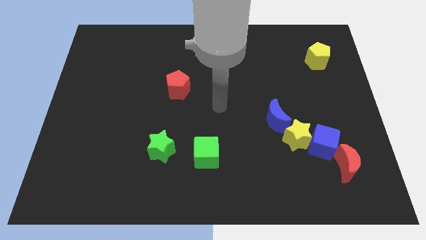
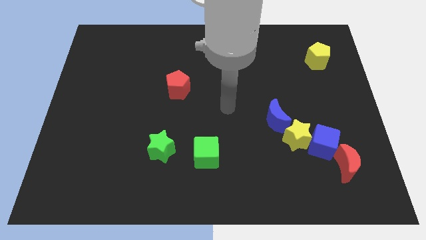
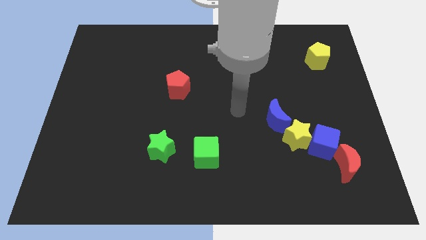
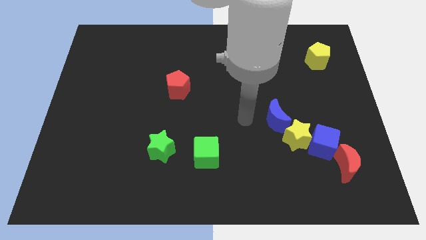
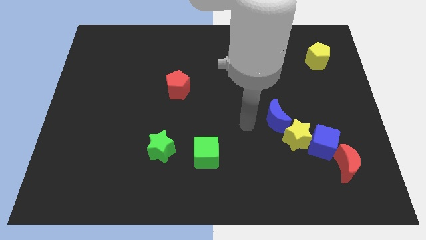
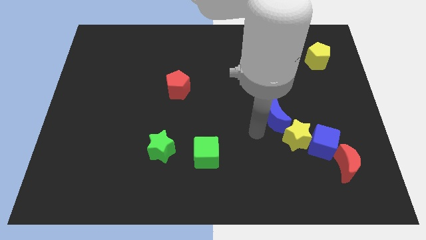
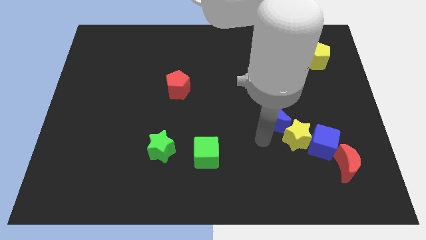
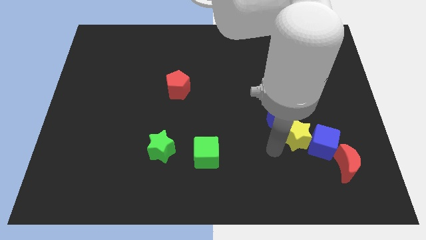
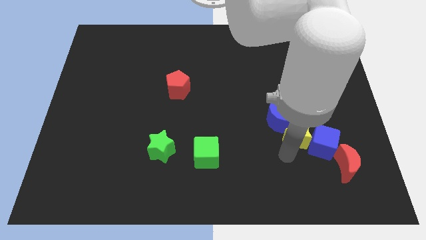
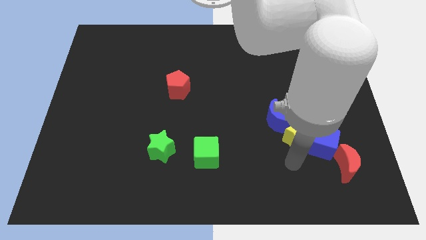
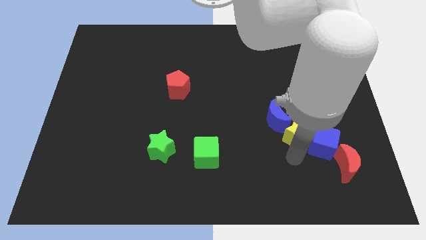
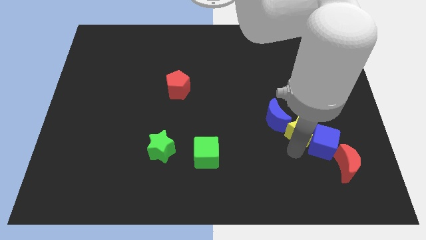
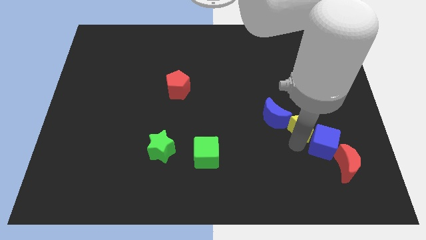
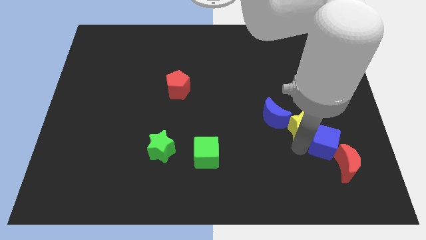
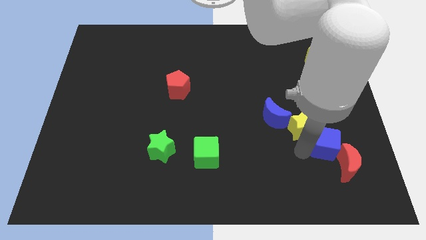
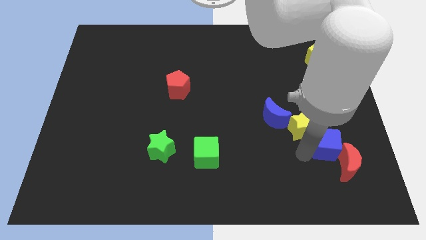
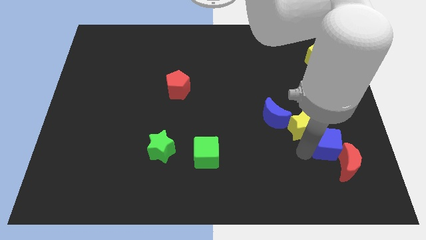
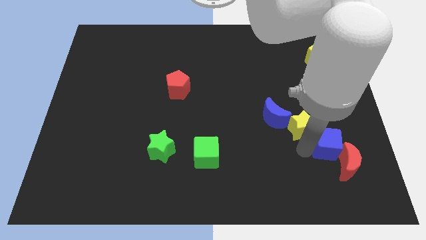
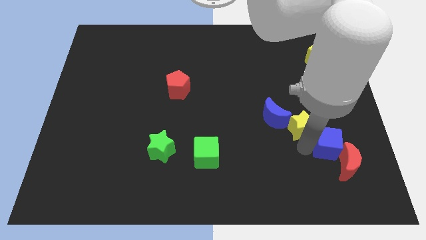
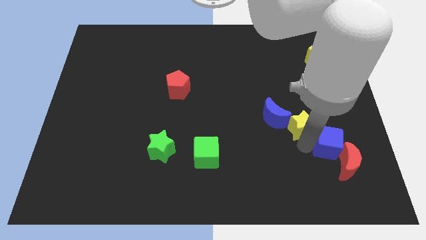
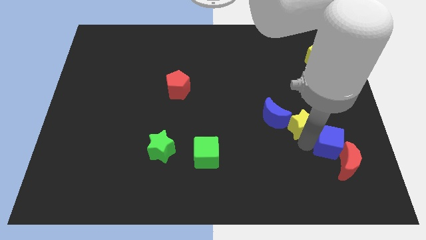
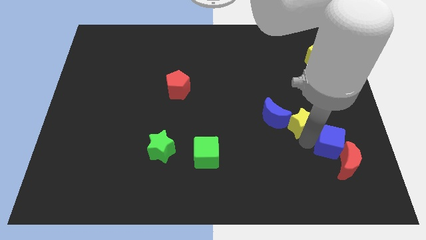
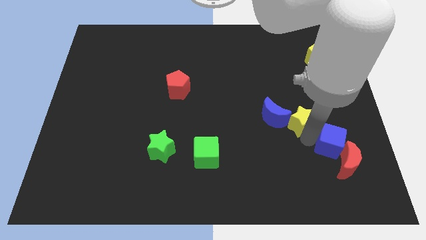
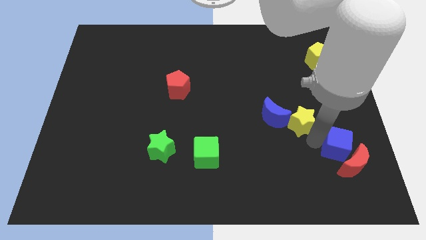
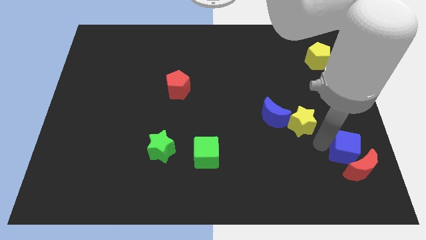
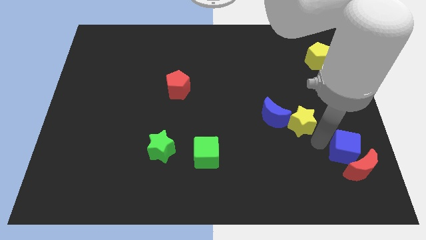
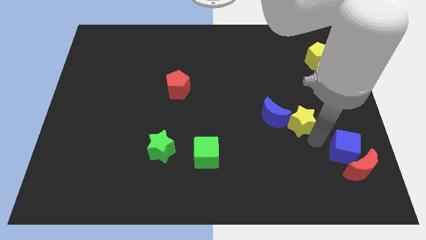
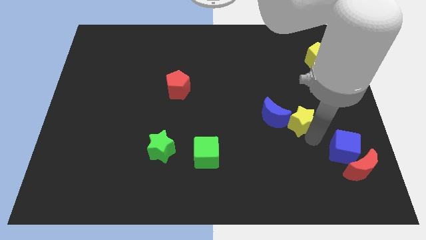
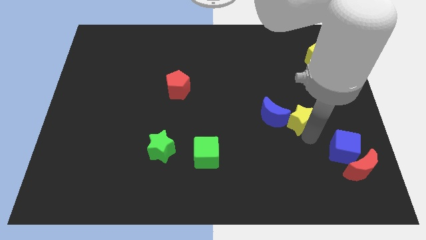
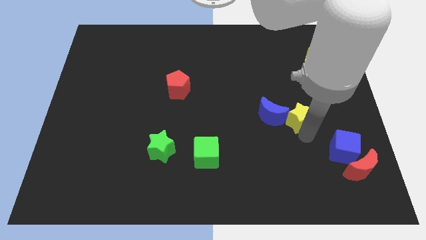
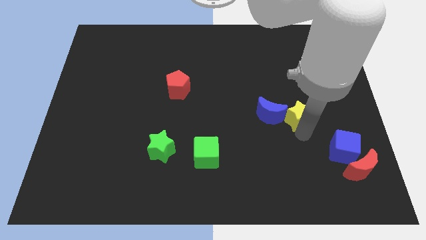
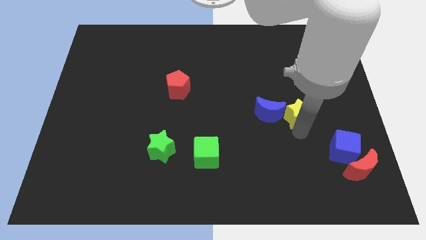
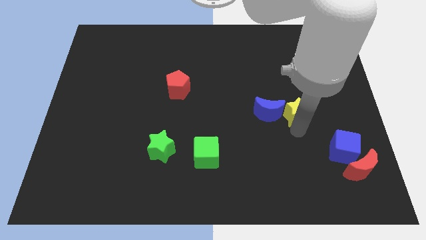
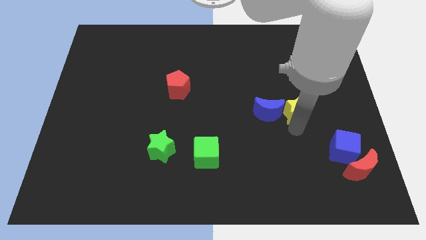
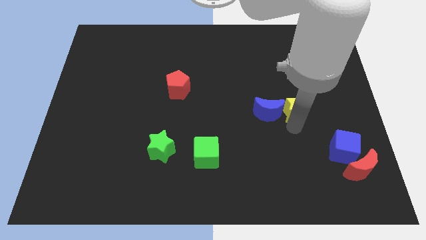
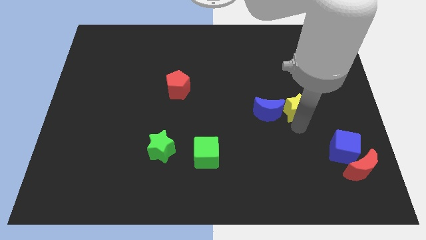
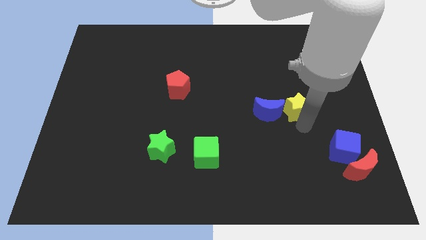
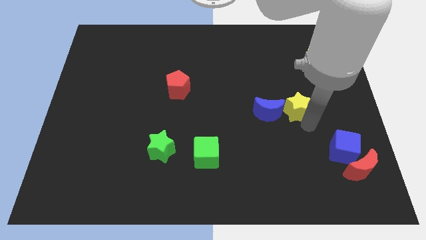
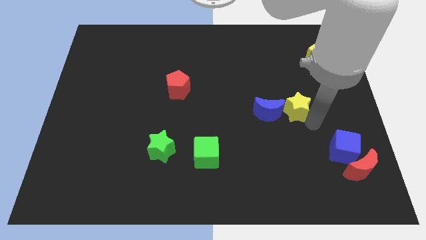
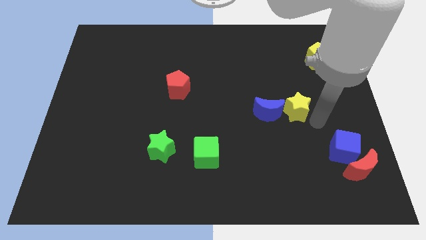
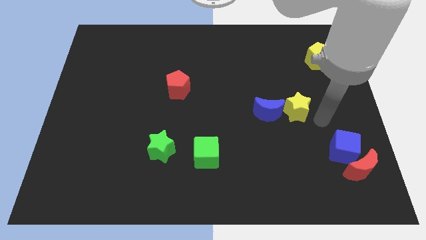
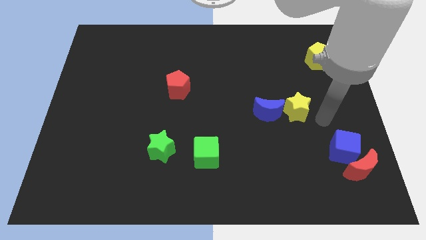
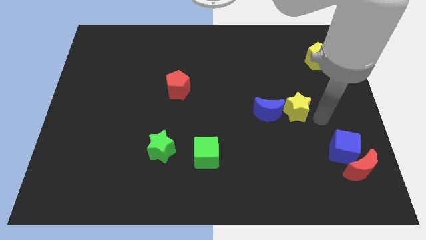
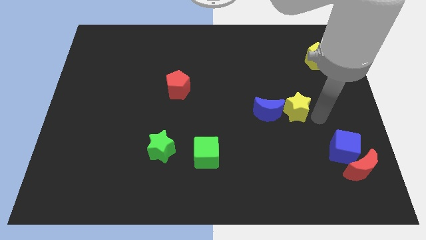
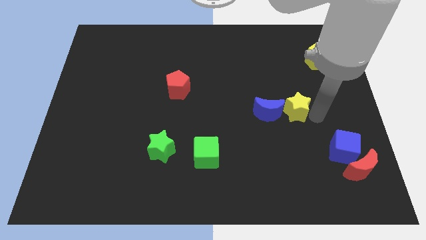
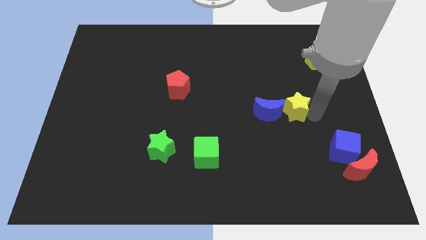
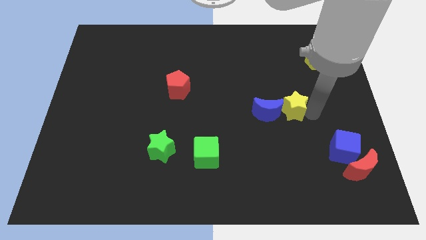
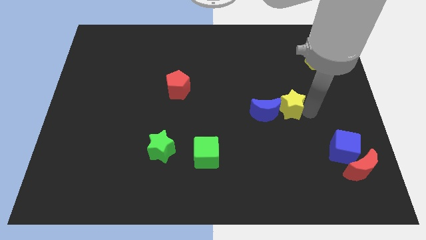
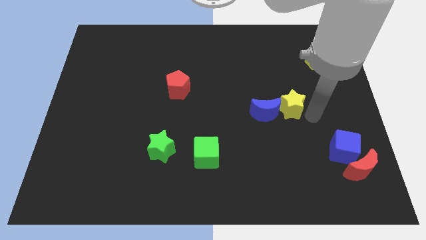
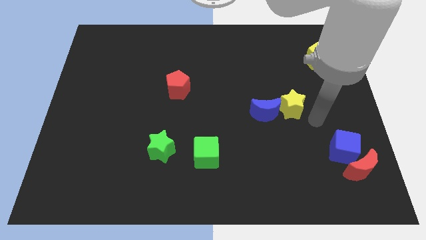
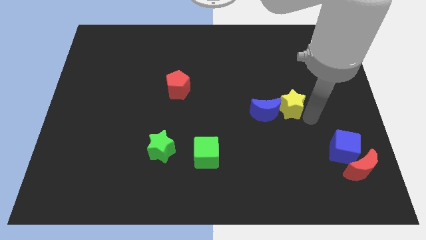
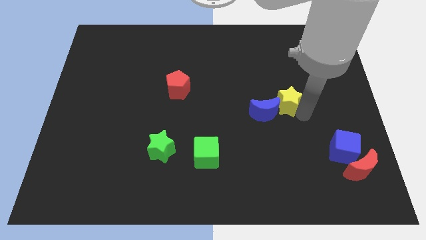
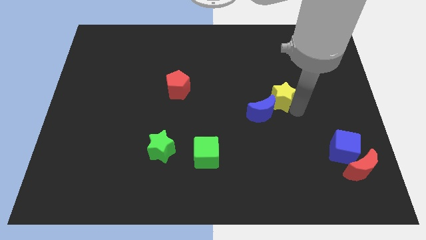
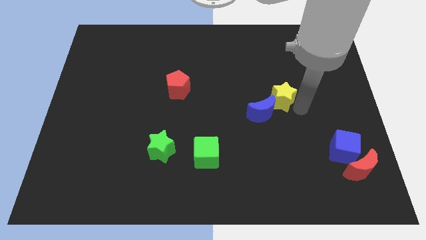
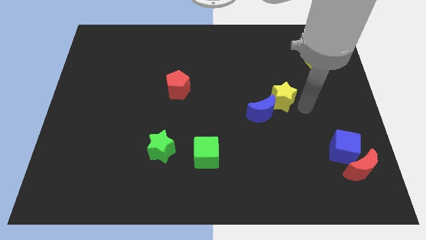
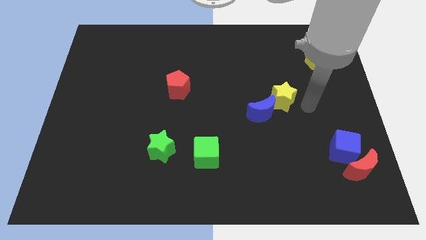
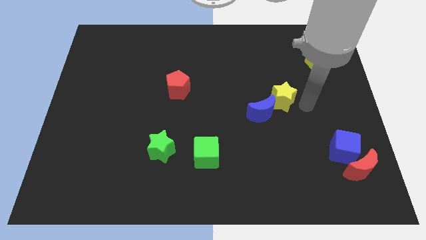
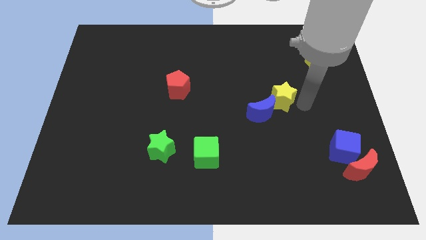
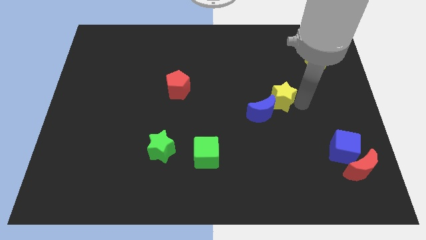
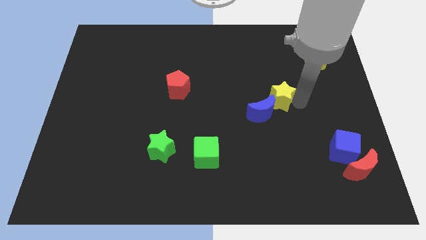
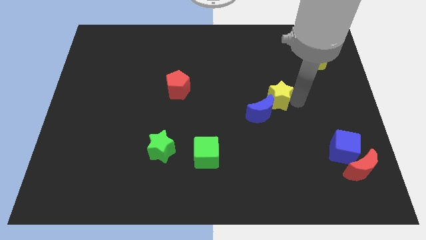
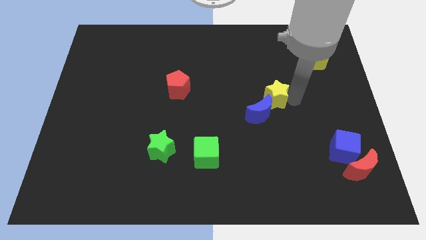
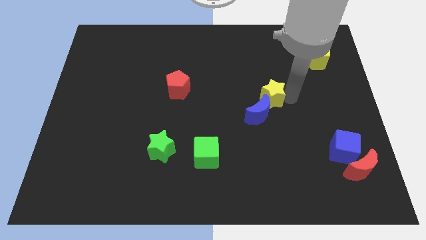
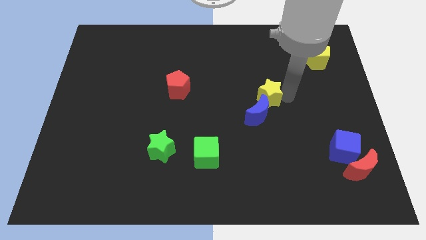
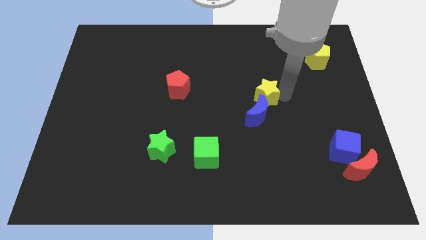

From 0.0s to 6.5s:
slide the yellow star to the middle of the board
